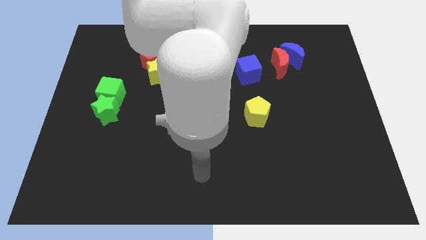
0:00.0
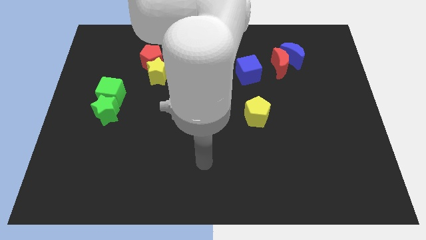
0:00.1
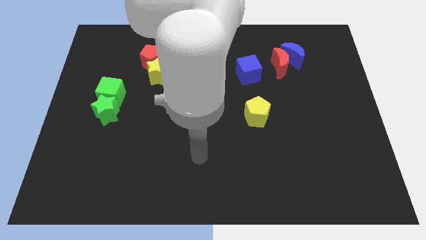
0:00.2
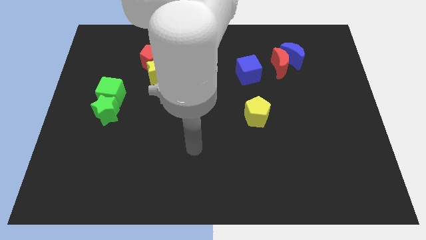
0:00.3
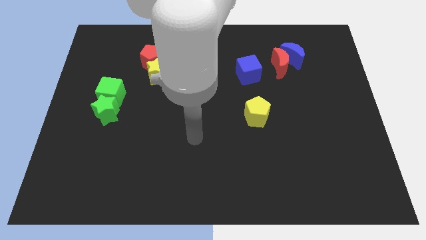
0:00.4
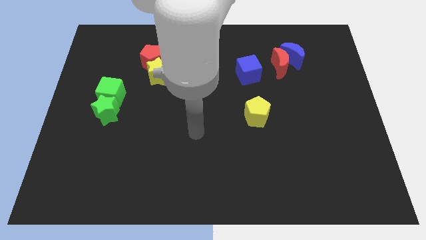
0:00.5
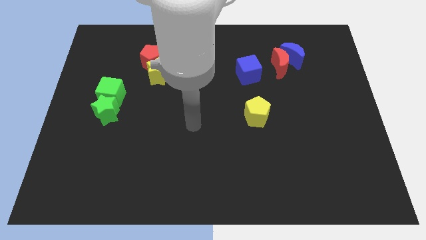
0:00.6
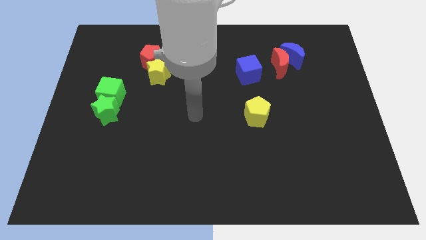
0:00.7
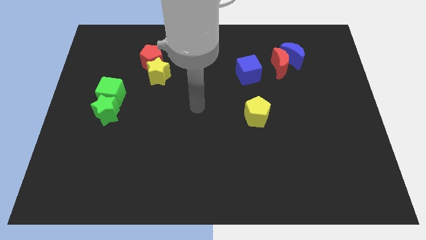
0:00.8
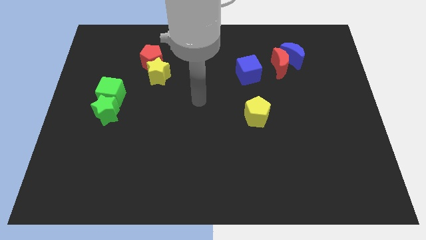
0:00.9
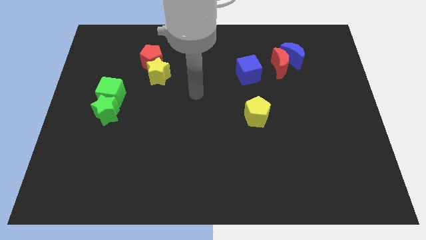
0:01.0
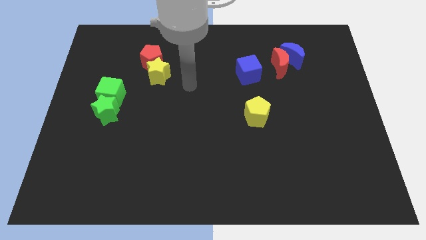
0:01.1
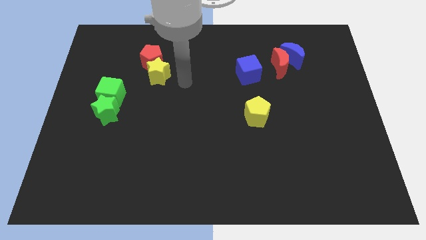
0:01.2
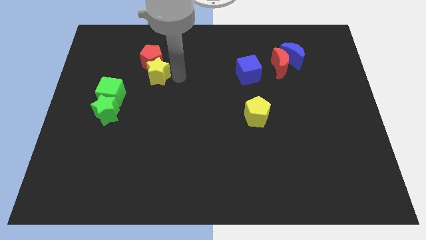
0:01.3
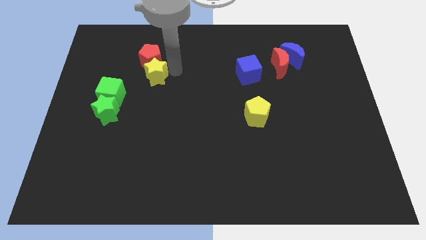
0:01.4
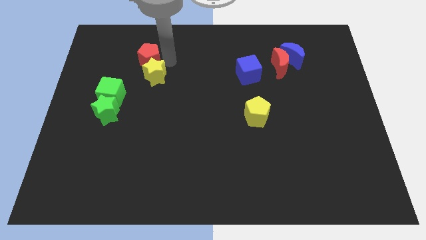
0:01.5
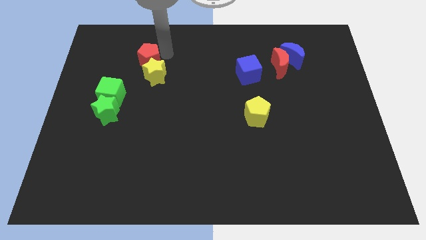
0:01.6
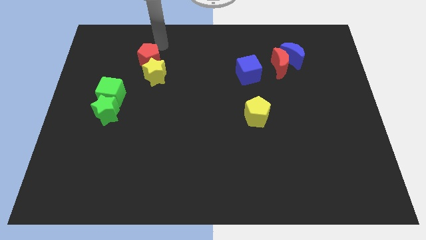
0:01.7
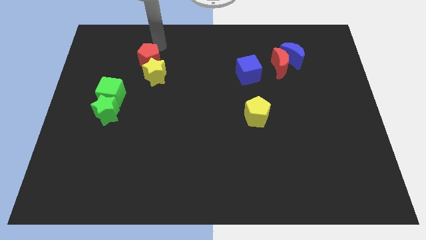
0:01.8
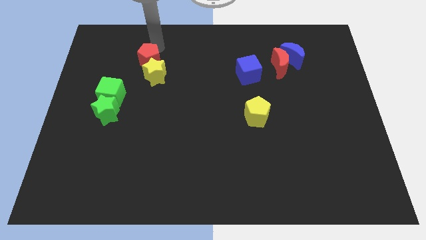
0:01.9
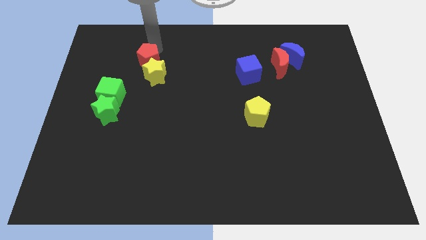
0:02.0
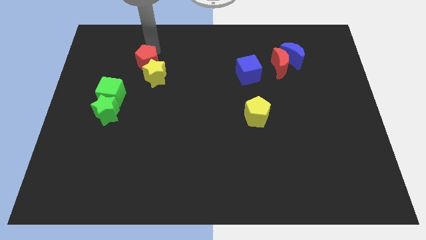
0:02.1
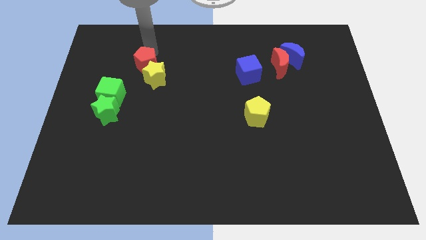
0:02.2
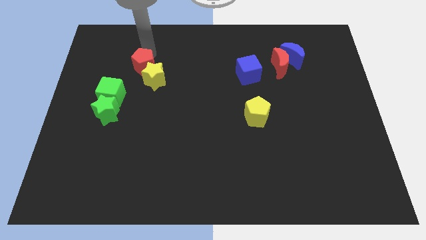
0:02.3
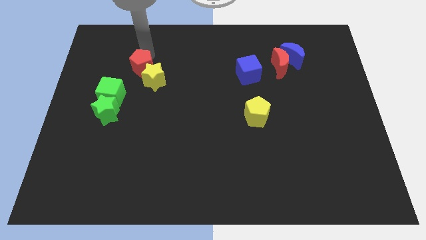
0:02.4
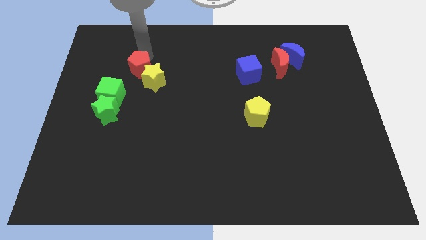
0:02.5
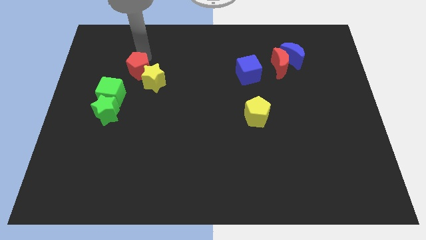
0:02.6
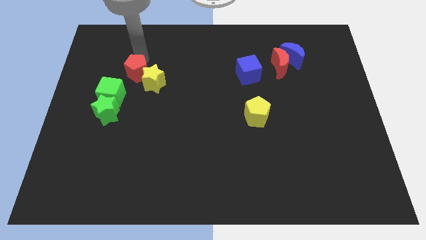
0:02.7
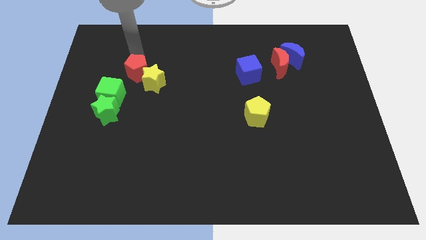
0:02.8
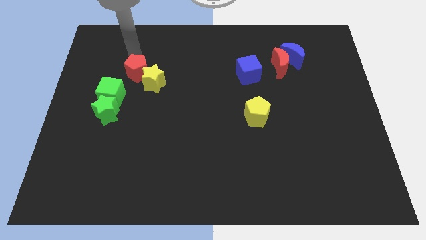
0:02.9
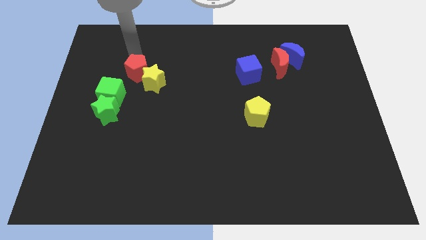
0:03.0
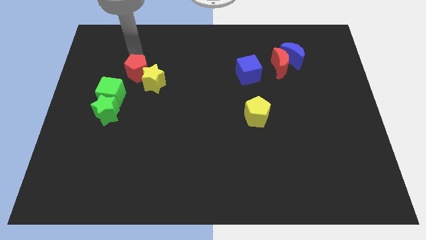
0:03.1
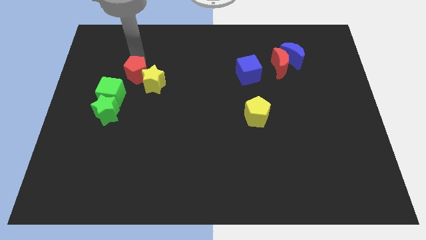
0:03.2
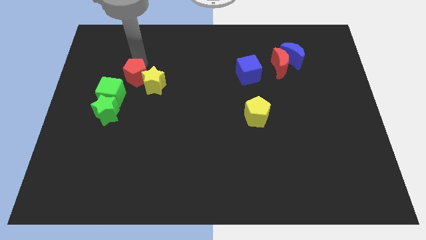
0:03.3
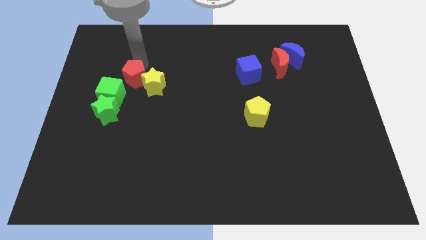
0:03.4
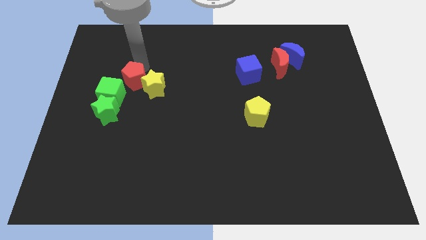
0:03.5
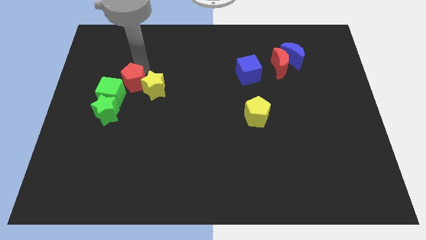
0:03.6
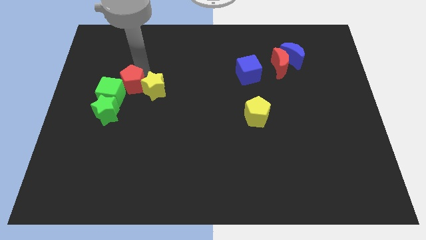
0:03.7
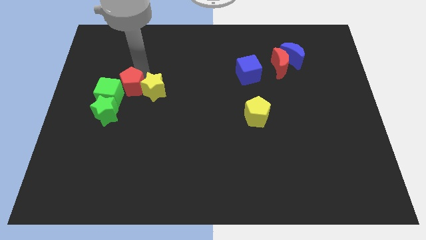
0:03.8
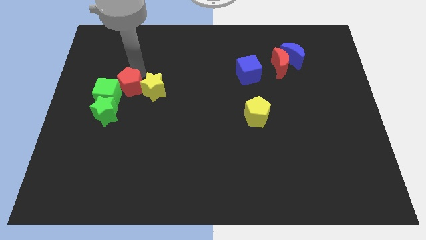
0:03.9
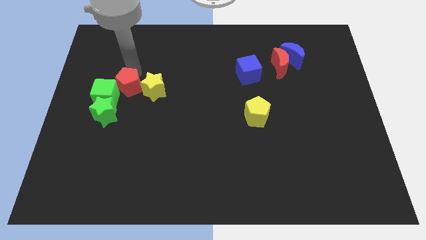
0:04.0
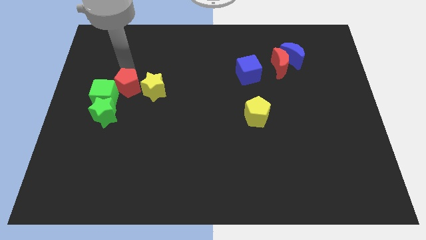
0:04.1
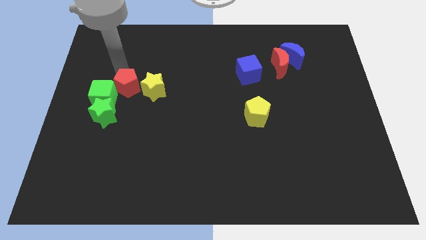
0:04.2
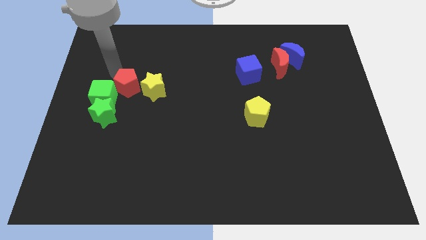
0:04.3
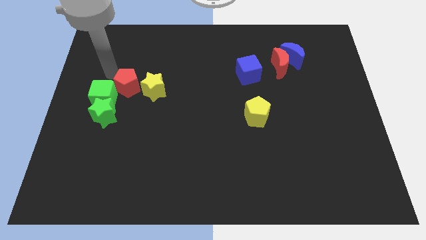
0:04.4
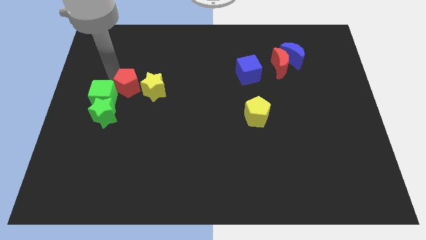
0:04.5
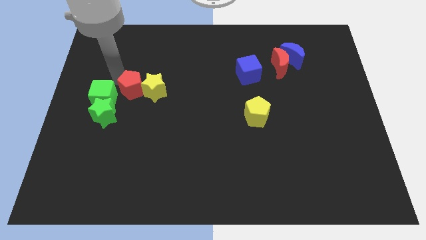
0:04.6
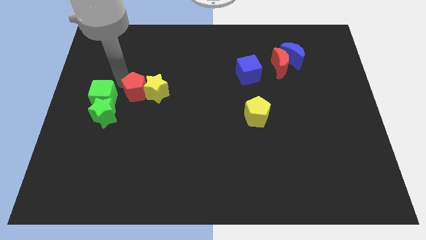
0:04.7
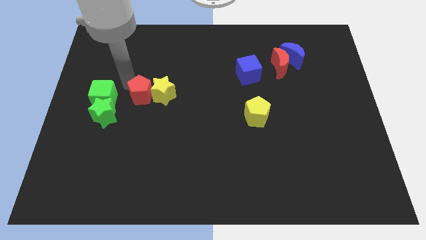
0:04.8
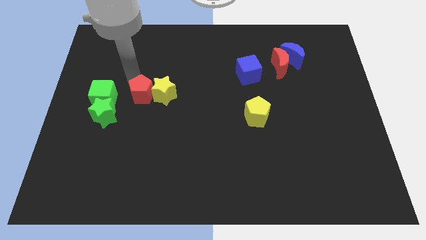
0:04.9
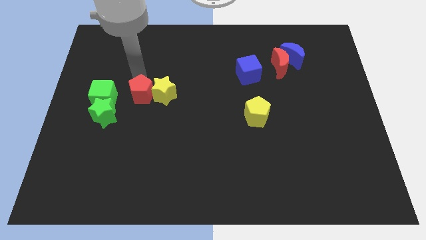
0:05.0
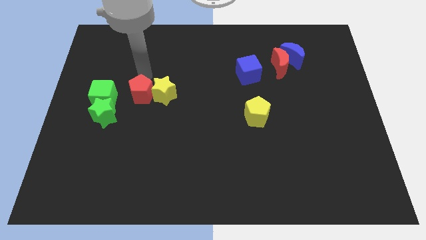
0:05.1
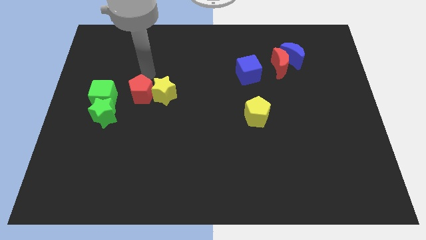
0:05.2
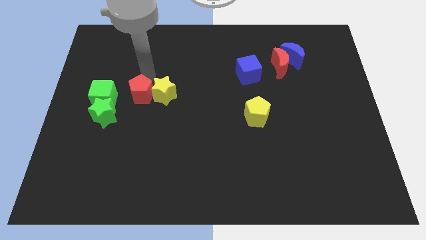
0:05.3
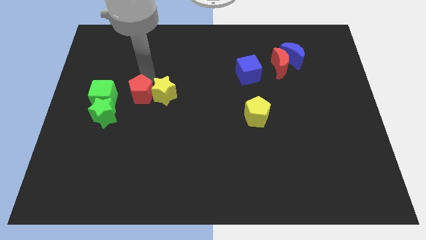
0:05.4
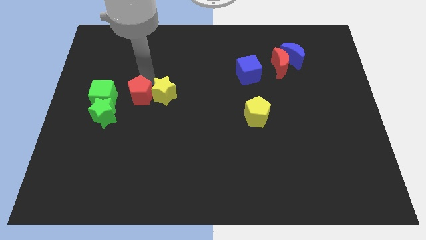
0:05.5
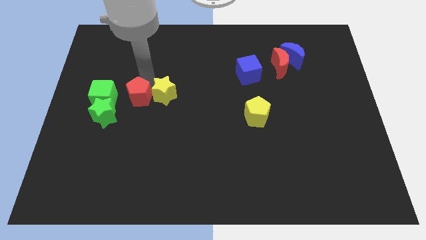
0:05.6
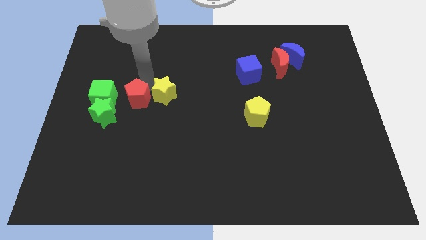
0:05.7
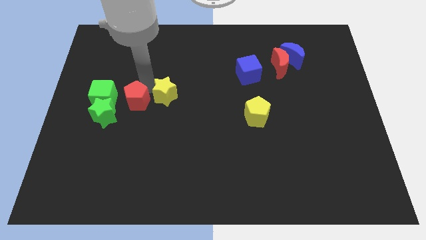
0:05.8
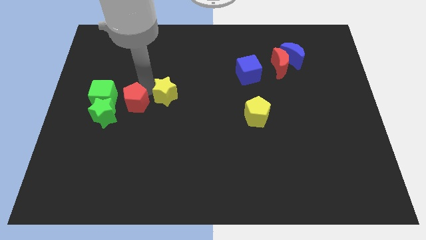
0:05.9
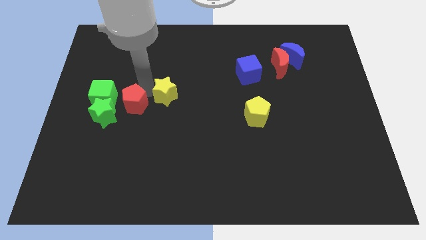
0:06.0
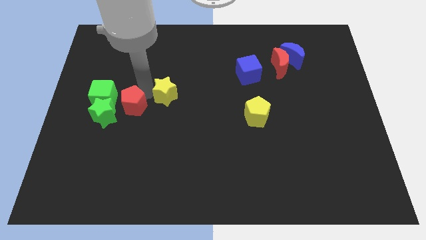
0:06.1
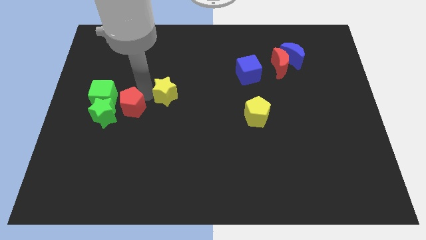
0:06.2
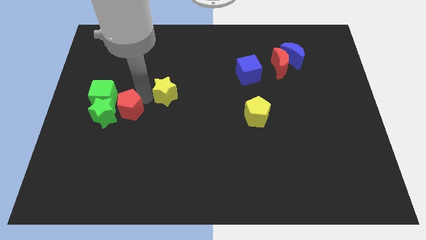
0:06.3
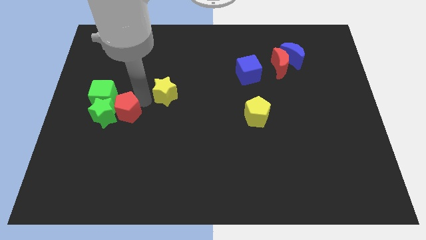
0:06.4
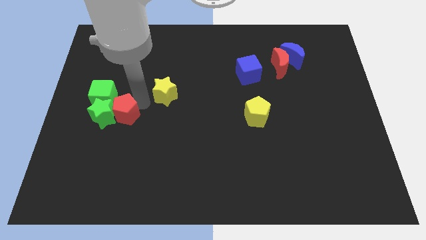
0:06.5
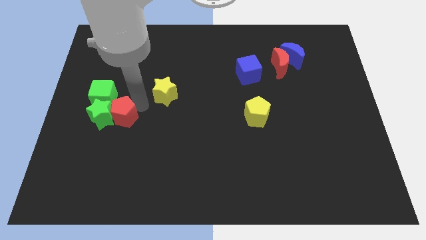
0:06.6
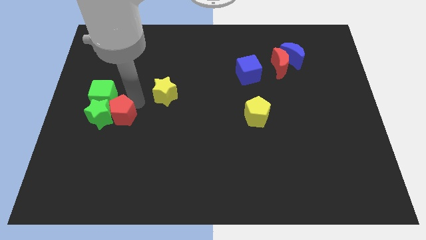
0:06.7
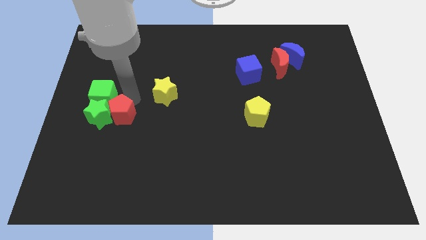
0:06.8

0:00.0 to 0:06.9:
slide the red pentagon to the bottom side of the green cube
